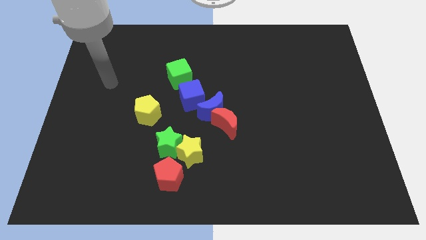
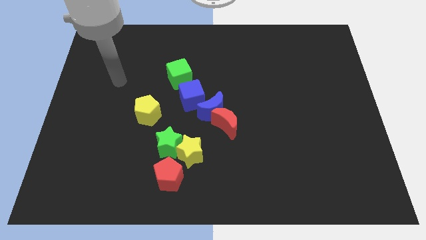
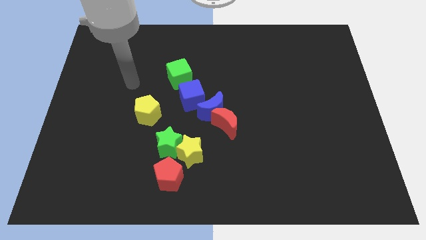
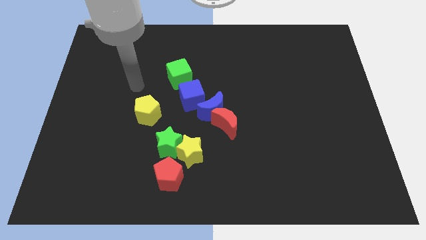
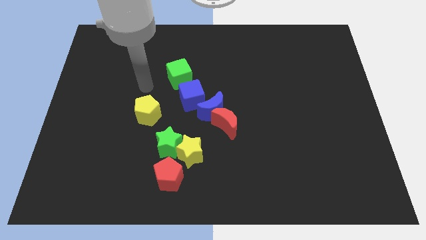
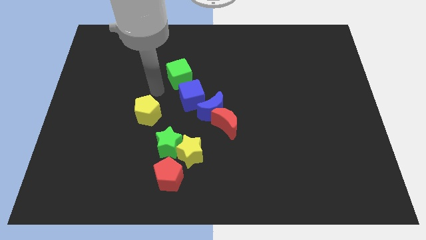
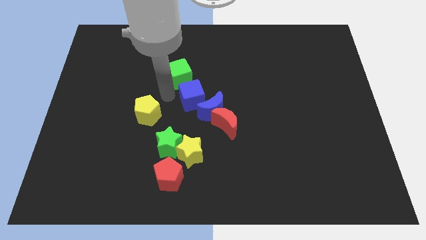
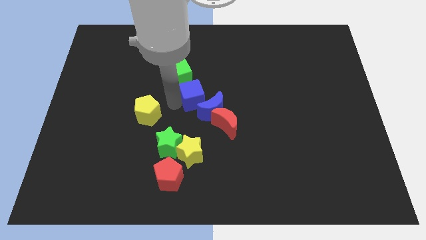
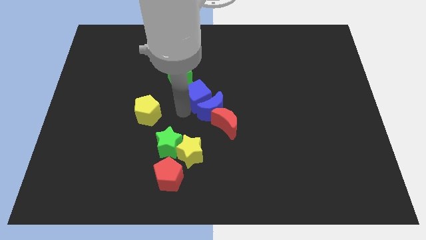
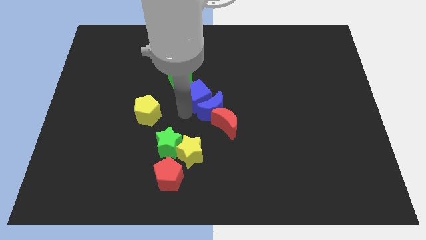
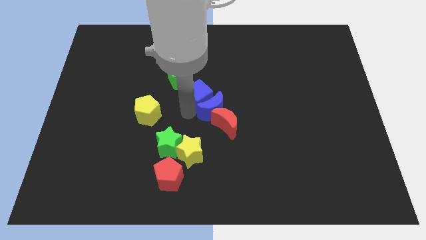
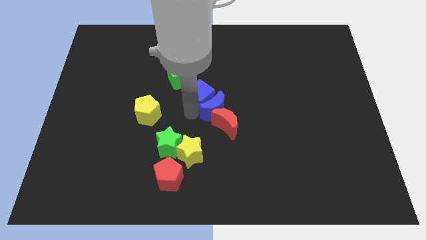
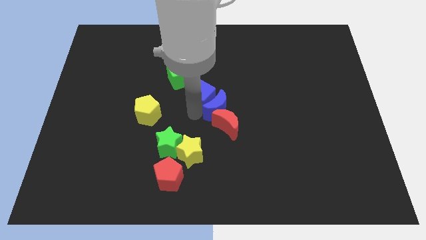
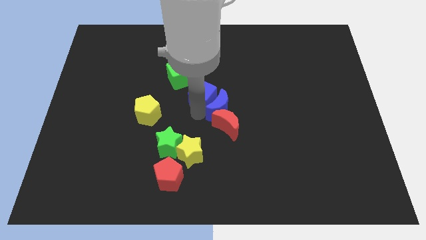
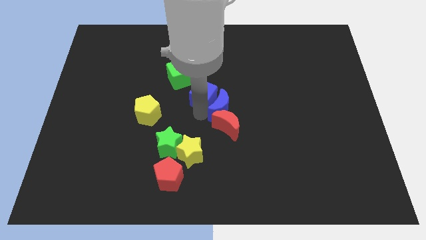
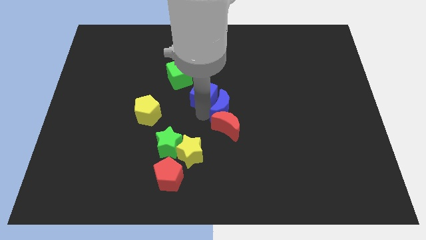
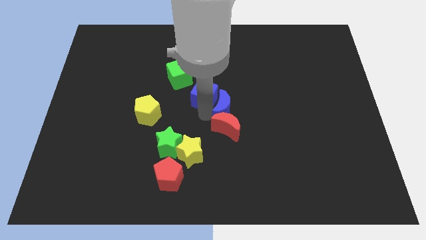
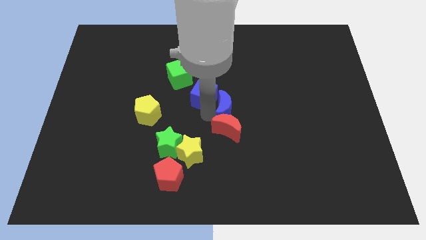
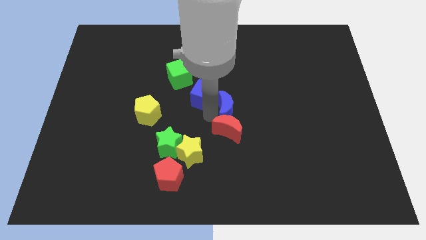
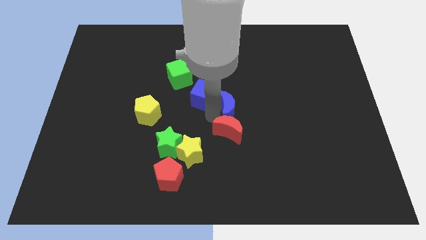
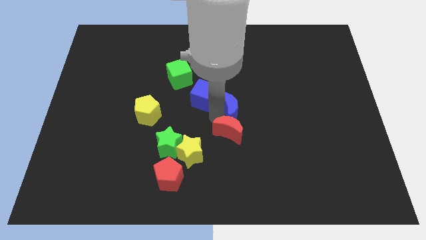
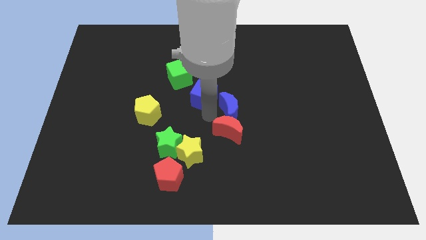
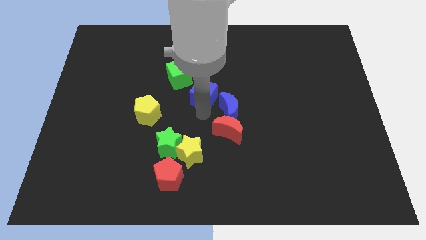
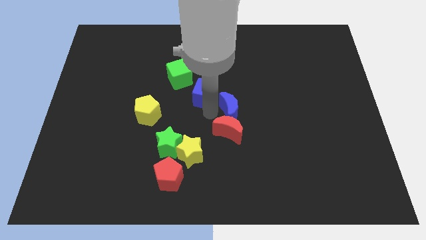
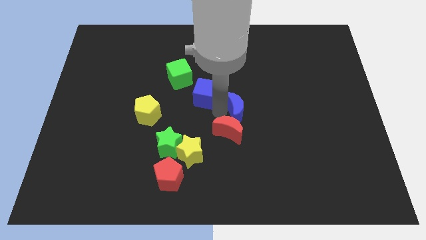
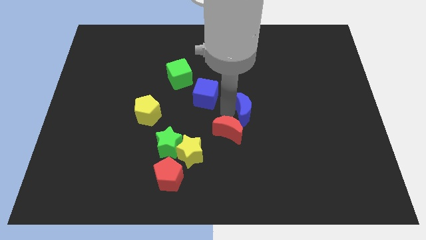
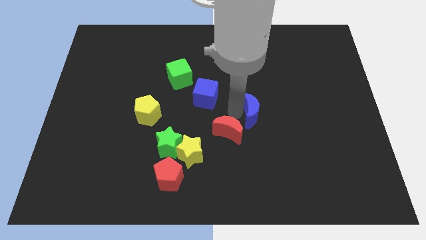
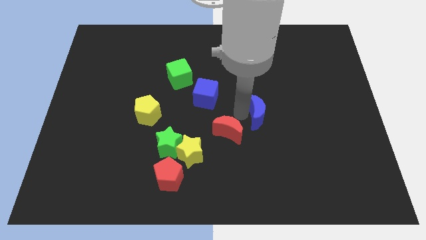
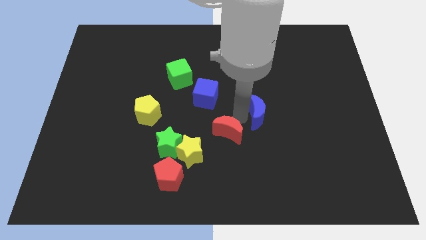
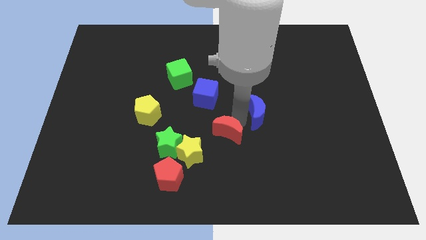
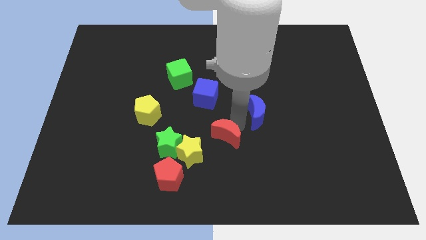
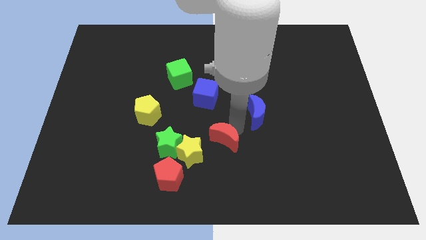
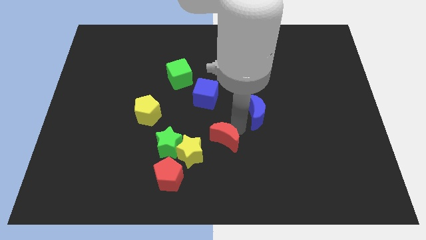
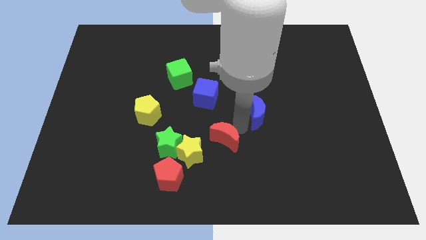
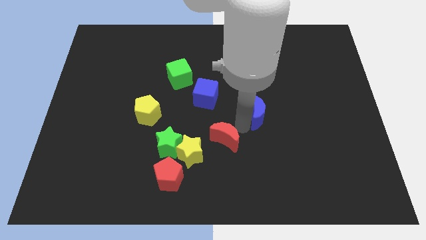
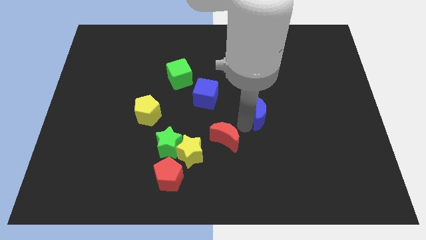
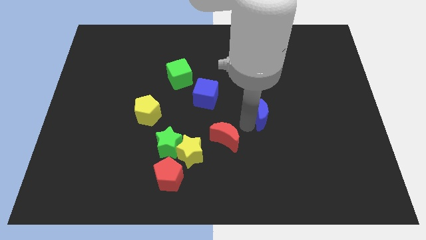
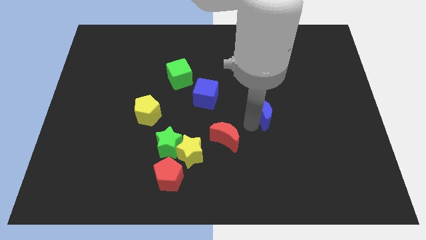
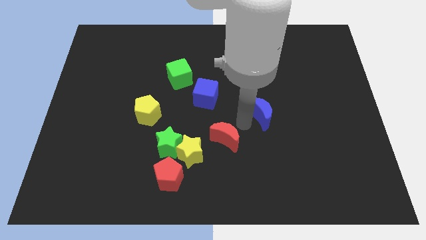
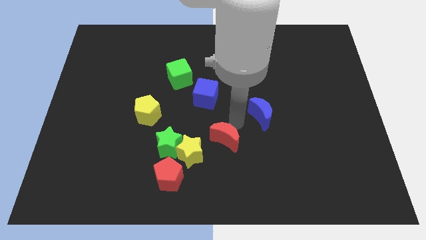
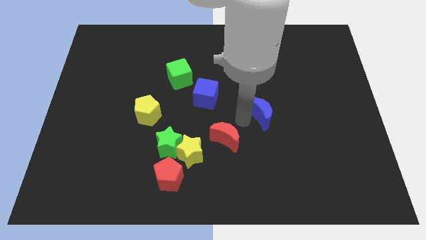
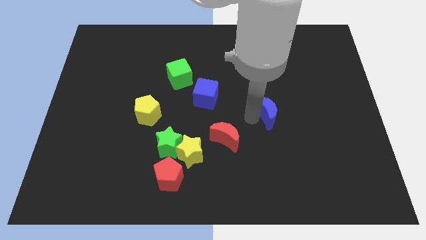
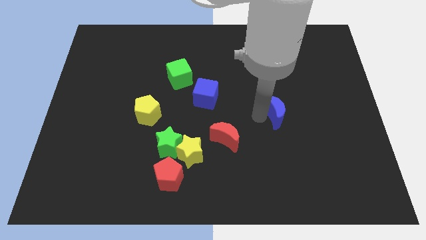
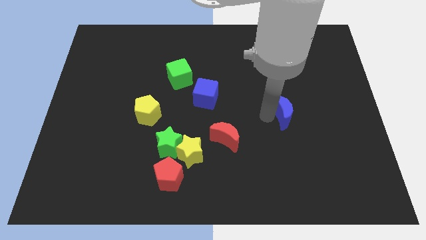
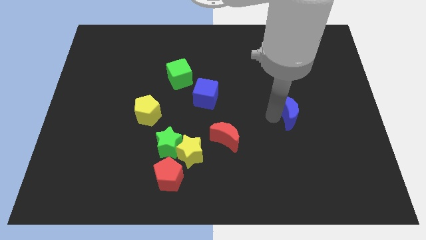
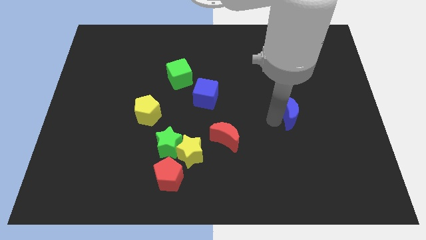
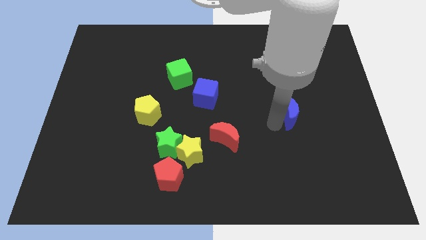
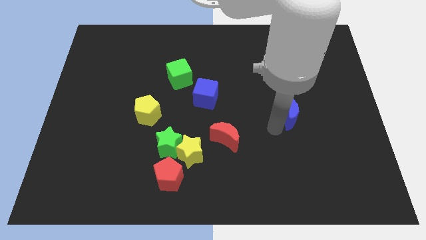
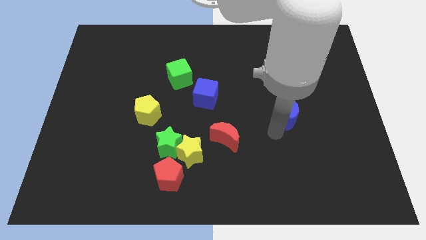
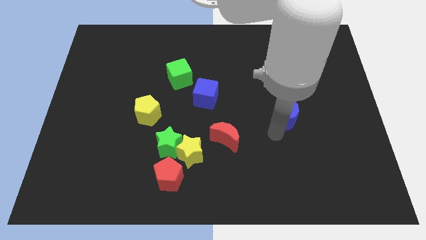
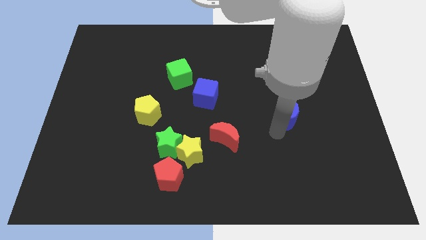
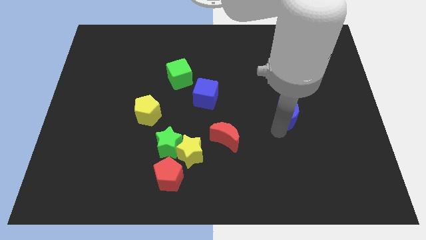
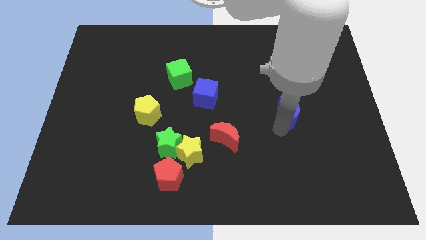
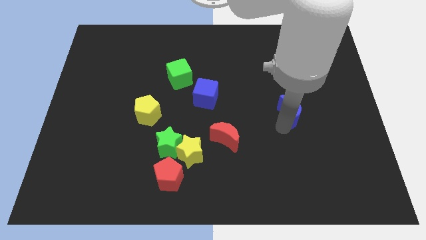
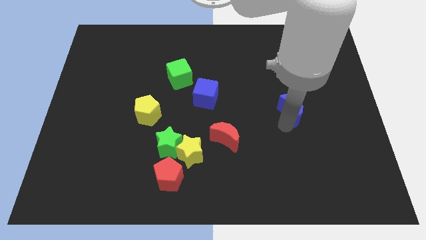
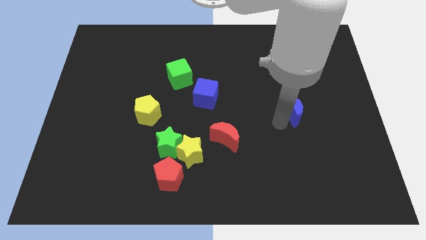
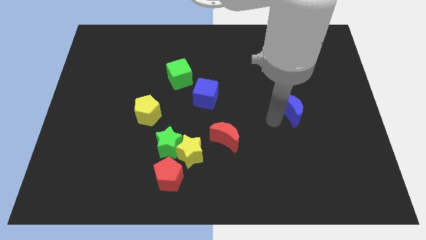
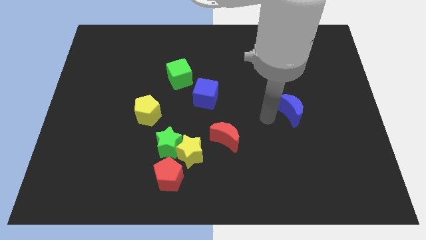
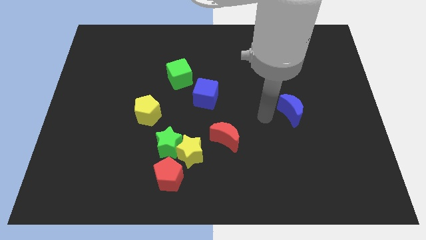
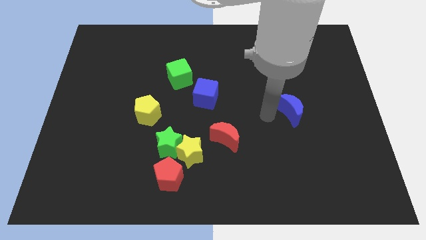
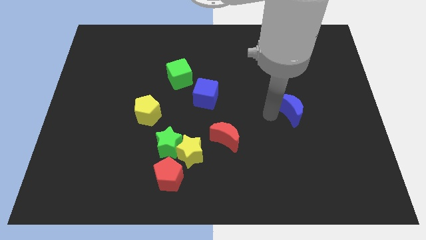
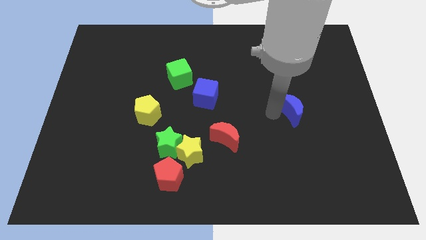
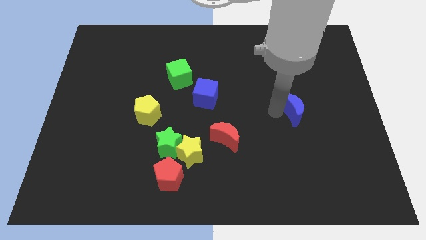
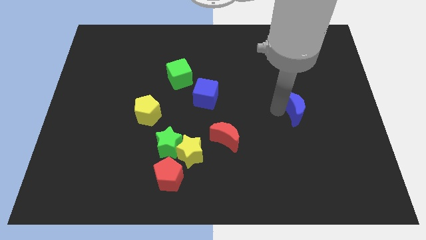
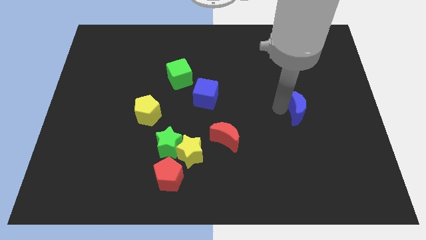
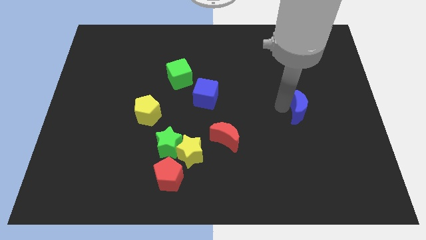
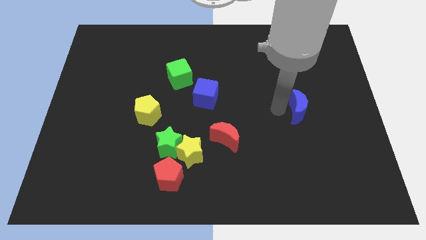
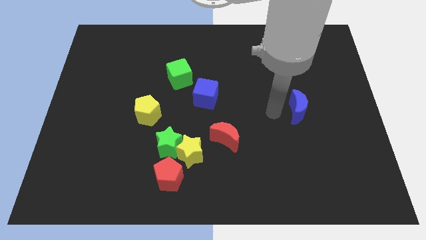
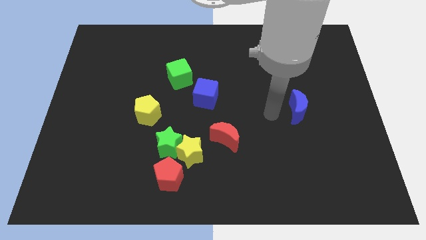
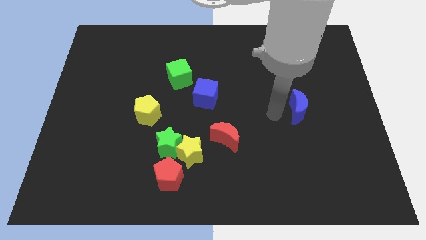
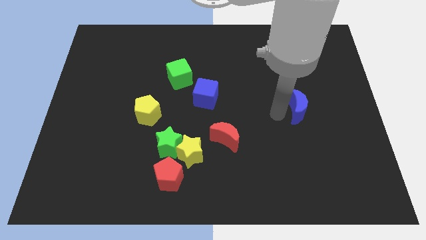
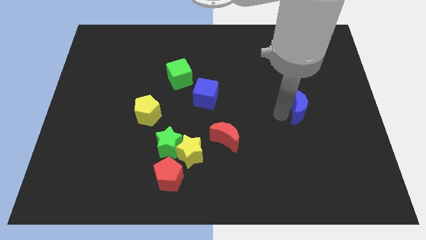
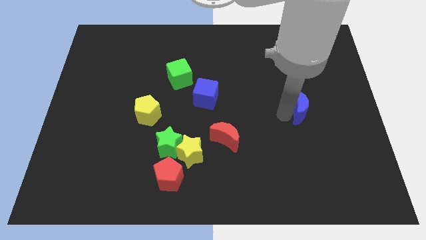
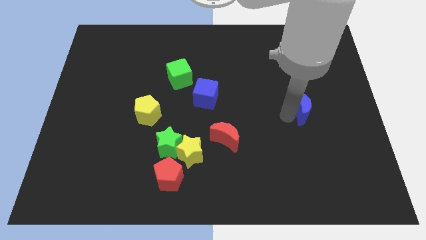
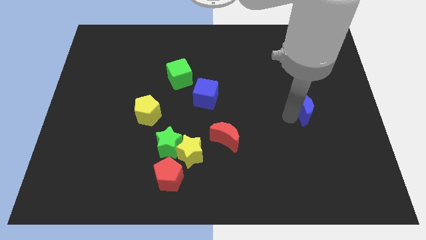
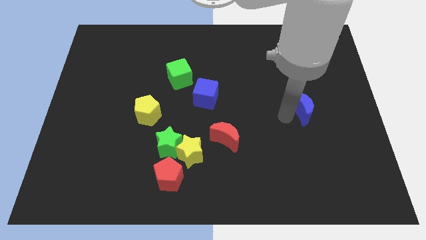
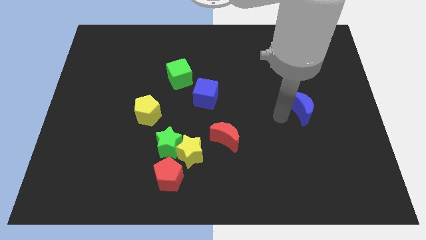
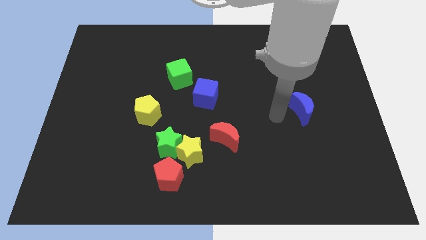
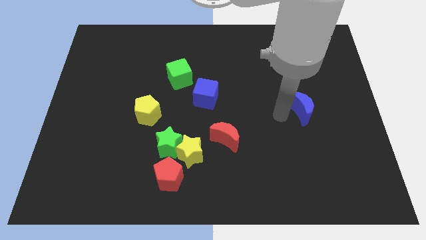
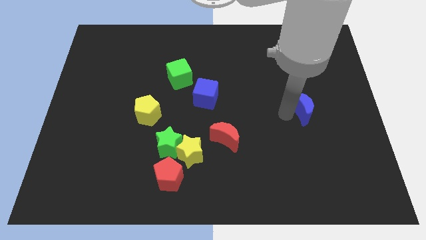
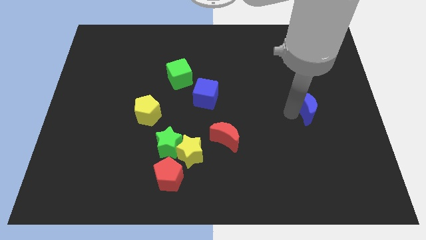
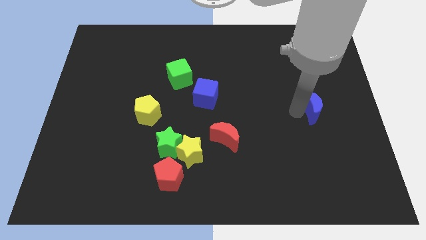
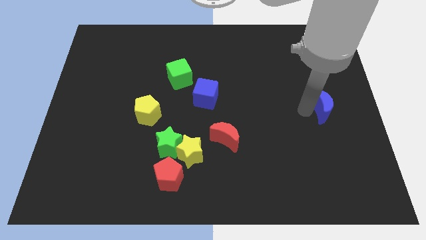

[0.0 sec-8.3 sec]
slide the blue moon to the center right

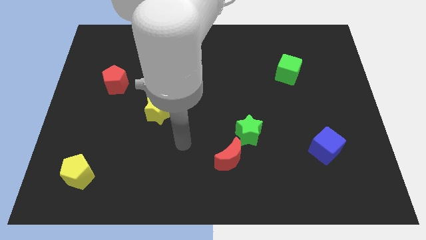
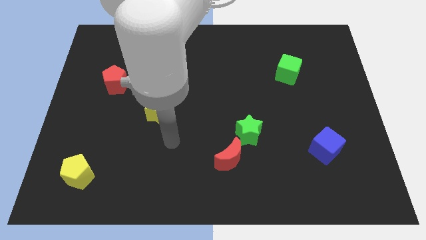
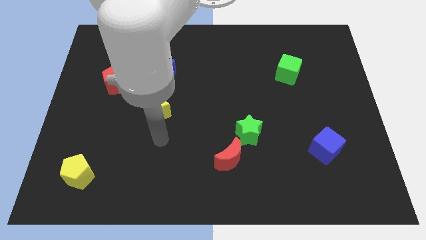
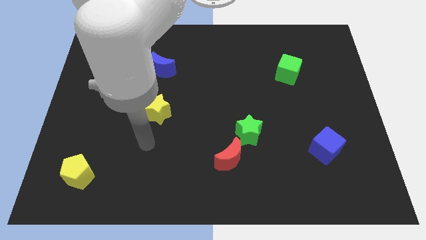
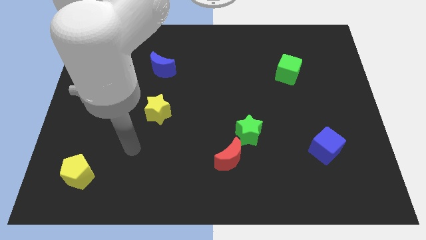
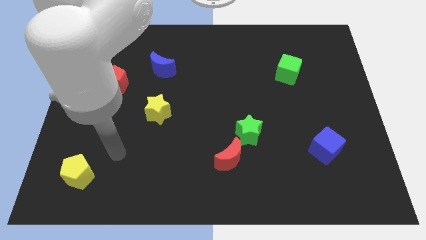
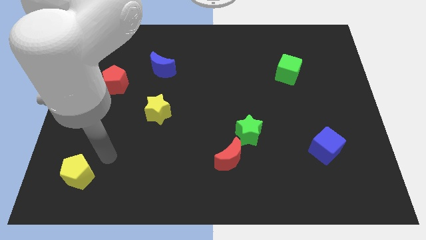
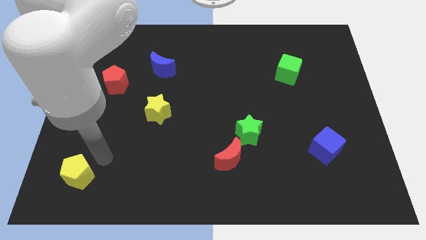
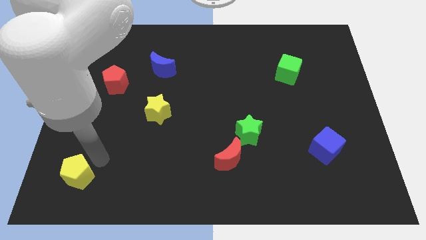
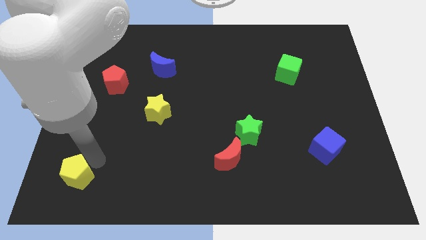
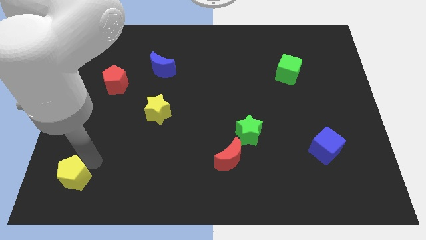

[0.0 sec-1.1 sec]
push the yellow pentagon to the lower left corner
